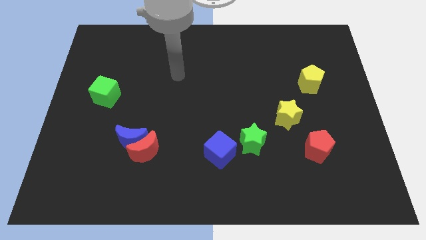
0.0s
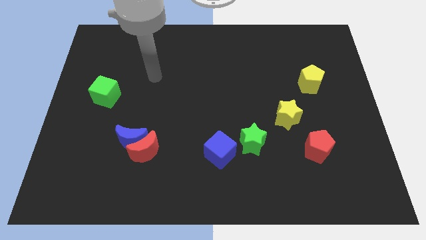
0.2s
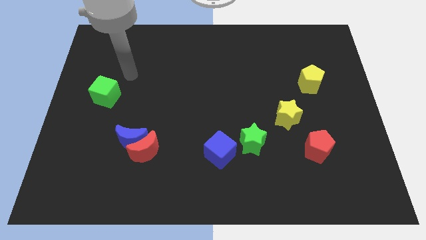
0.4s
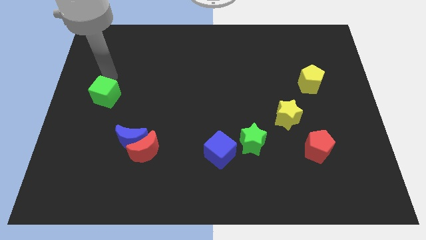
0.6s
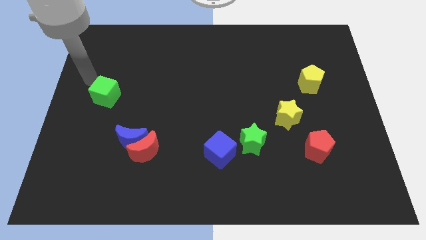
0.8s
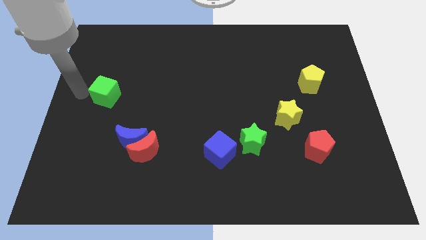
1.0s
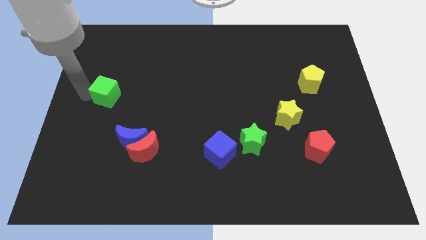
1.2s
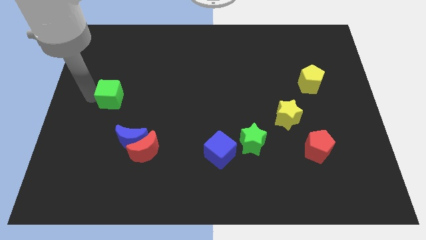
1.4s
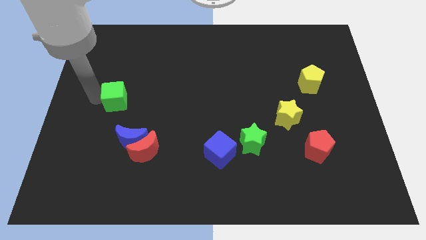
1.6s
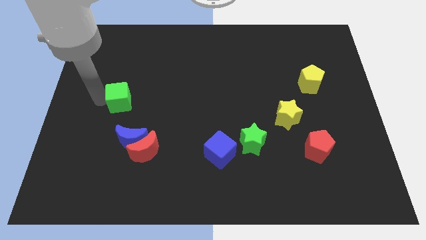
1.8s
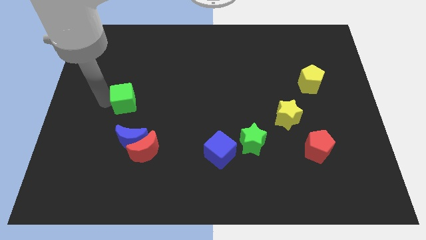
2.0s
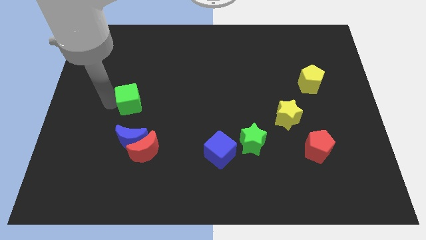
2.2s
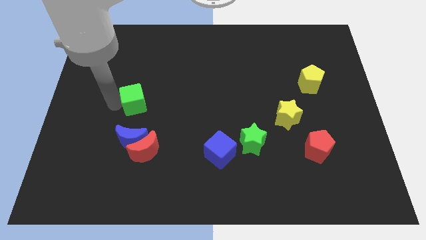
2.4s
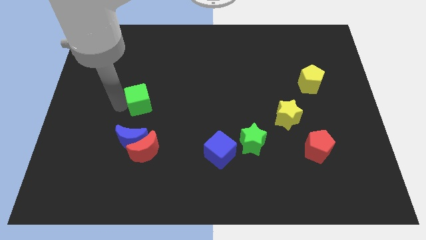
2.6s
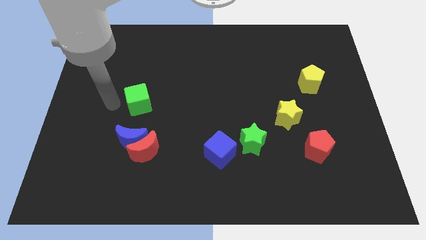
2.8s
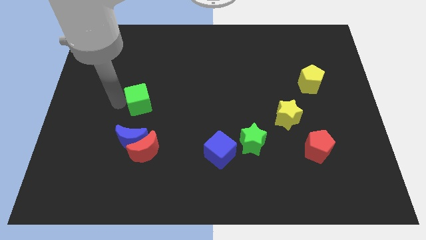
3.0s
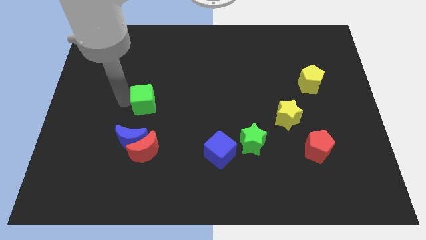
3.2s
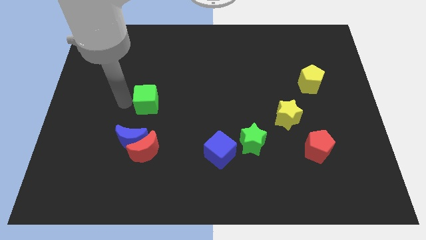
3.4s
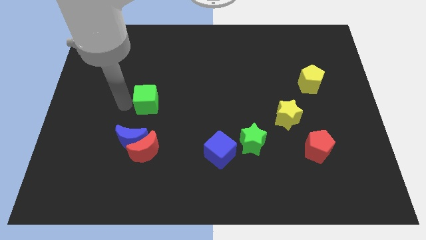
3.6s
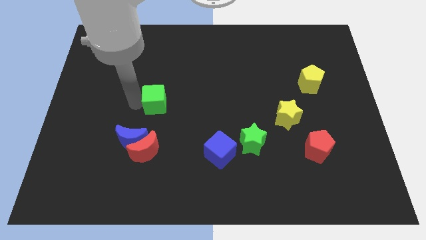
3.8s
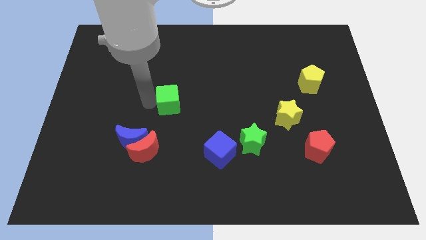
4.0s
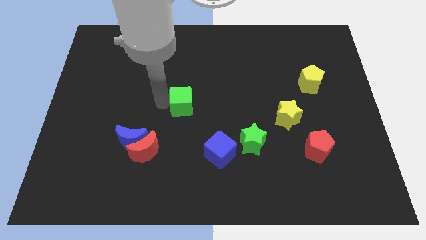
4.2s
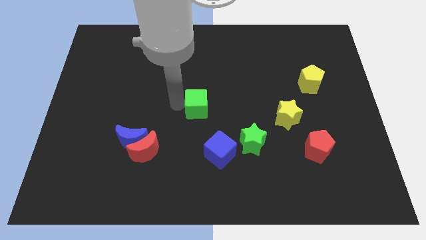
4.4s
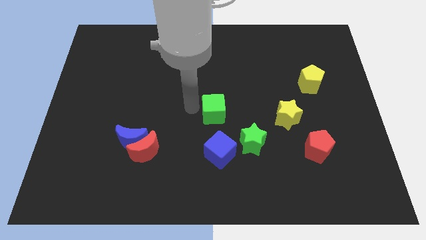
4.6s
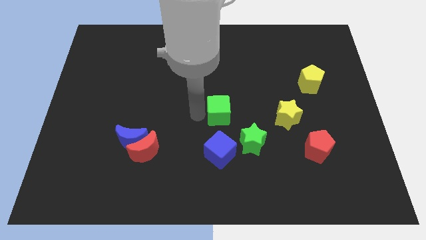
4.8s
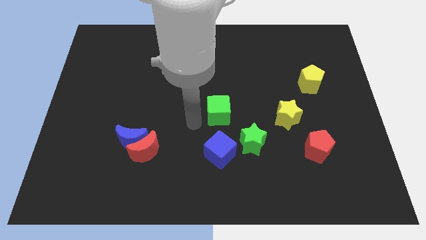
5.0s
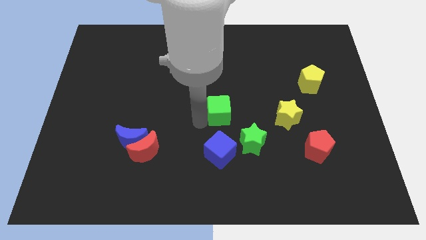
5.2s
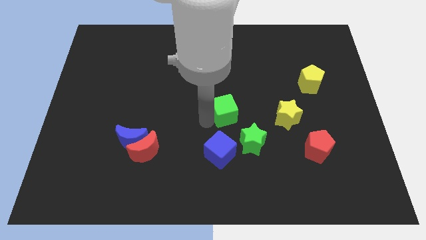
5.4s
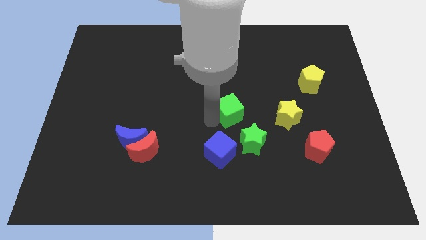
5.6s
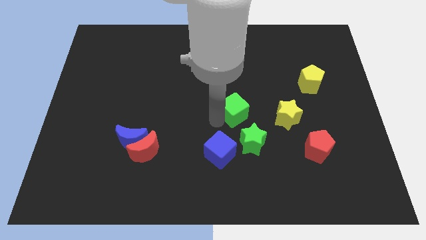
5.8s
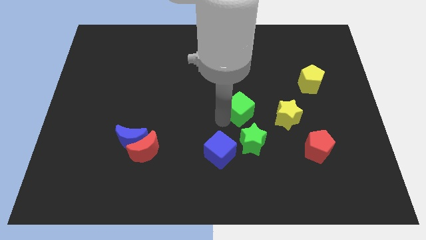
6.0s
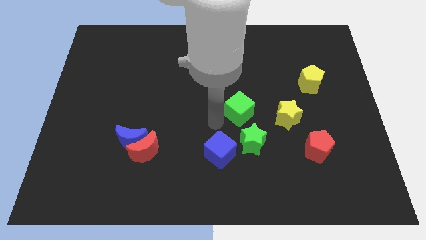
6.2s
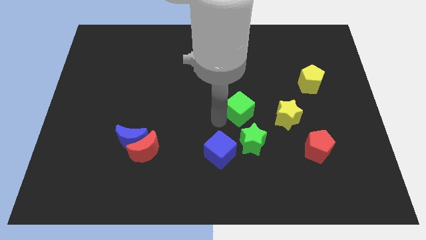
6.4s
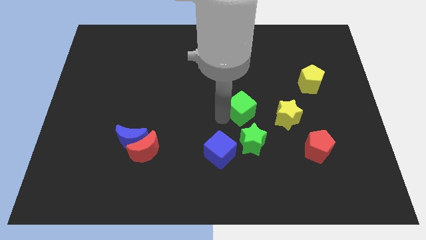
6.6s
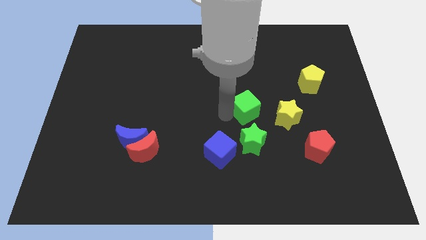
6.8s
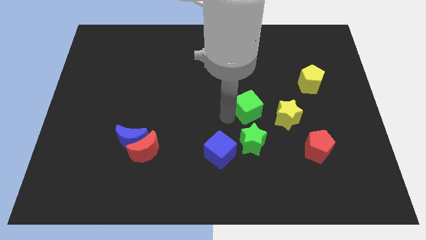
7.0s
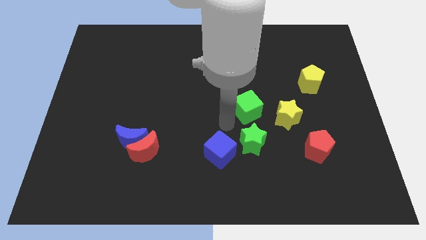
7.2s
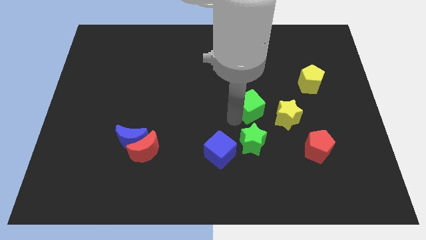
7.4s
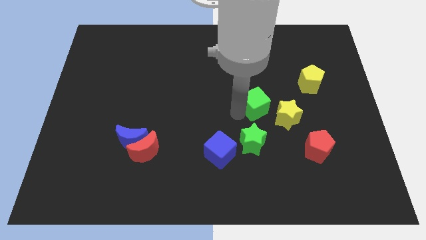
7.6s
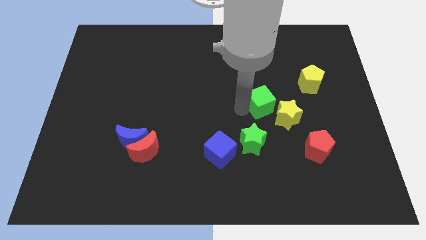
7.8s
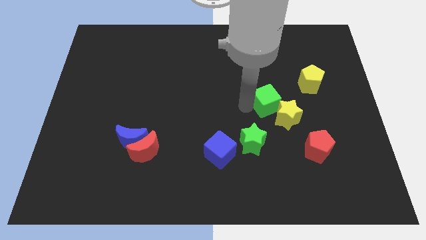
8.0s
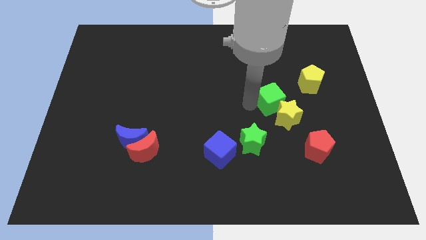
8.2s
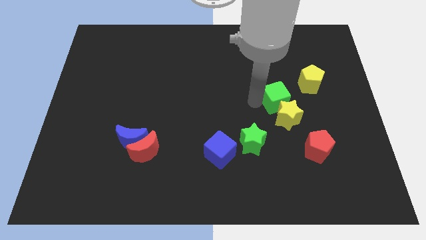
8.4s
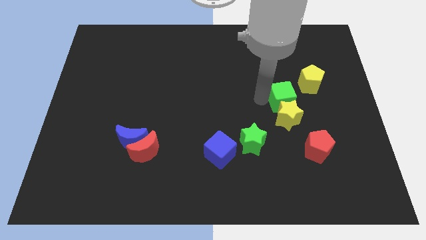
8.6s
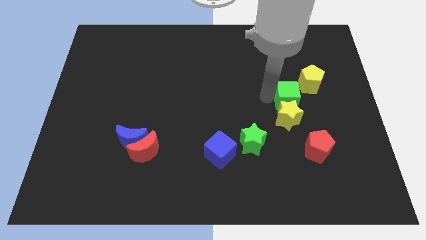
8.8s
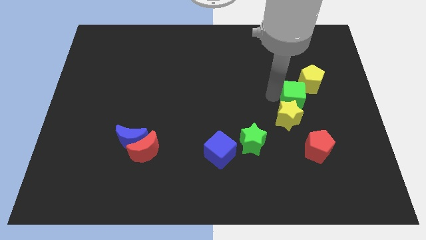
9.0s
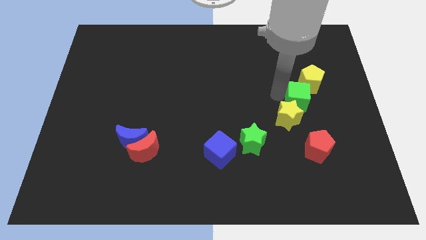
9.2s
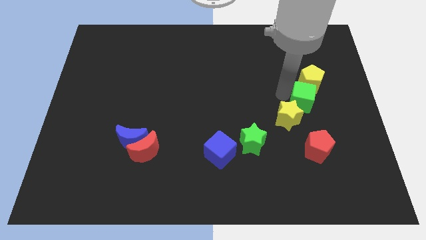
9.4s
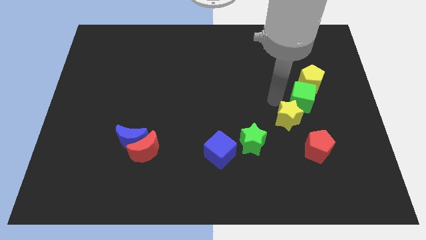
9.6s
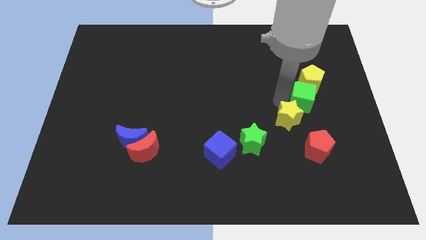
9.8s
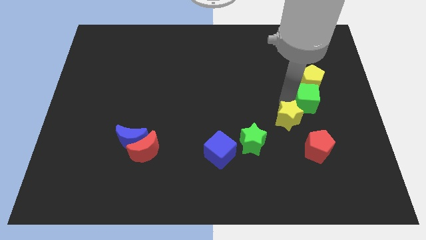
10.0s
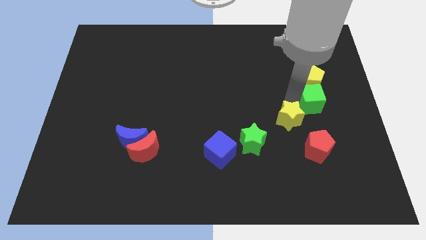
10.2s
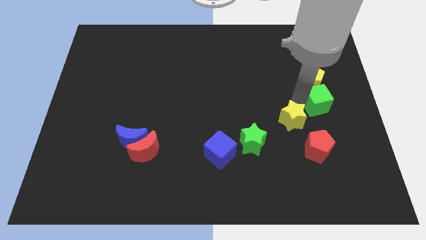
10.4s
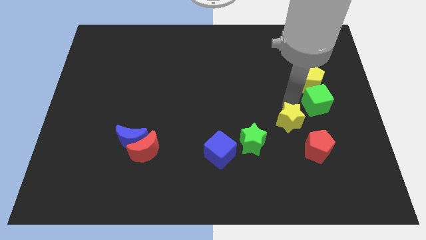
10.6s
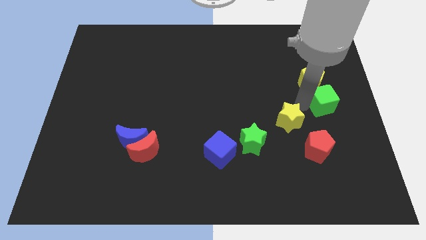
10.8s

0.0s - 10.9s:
push the green cube to the right side

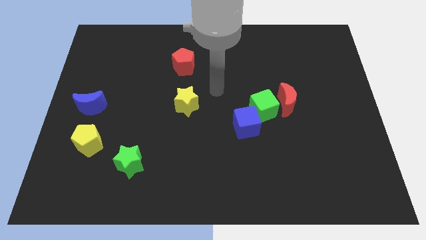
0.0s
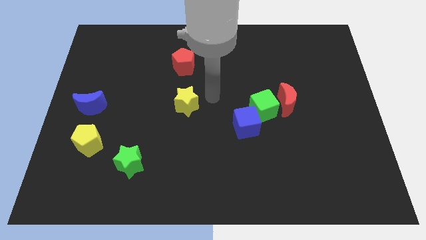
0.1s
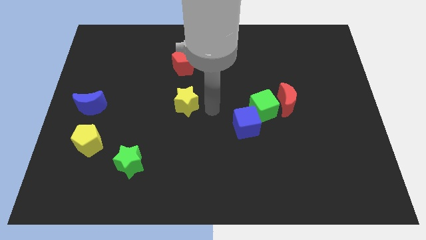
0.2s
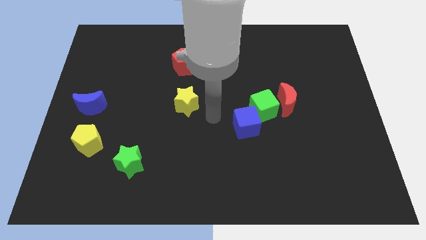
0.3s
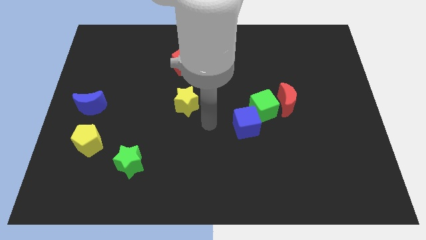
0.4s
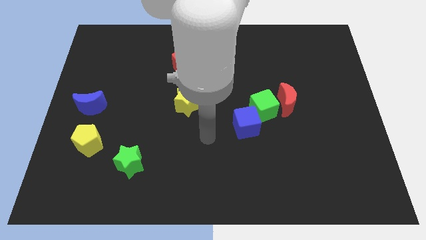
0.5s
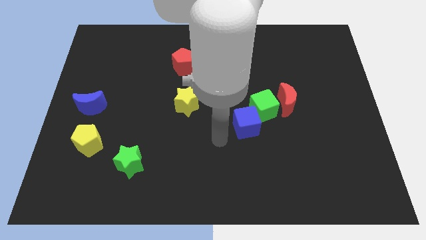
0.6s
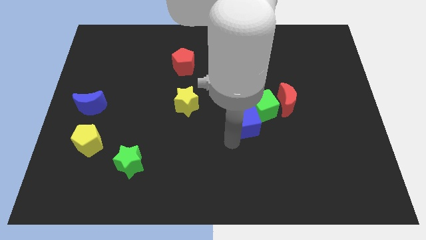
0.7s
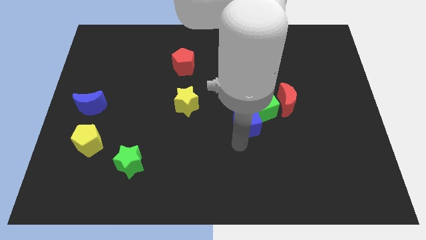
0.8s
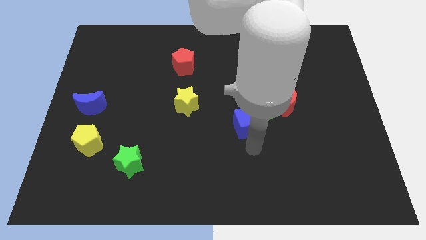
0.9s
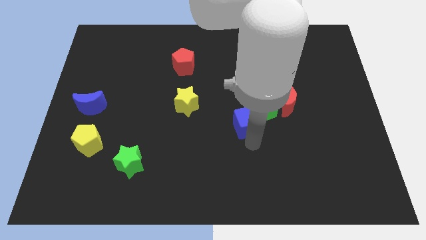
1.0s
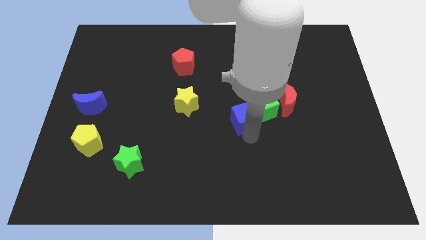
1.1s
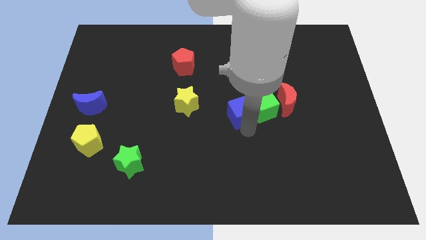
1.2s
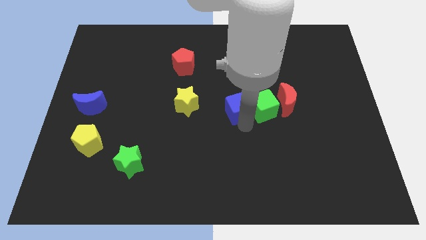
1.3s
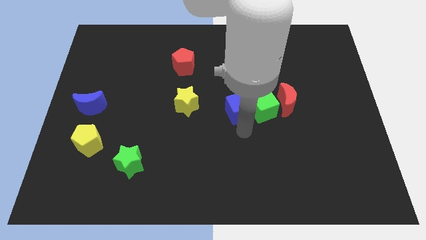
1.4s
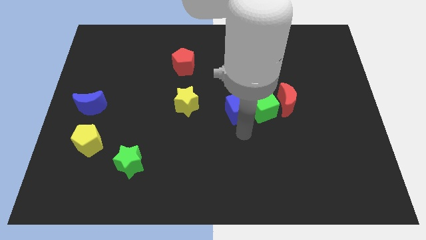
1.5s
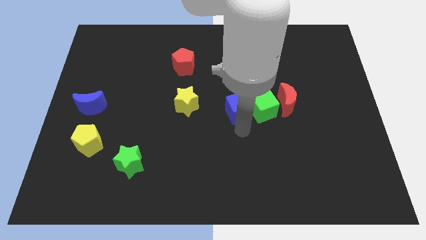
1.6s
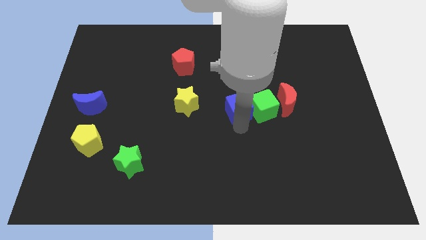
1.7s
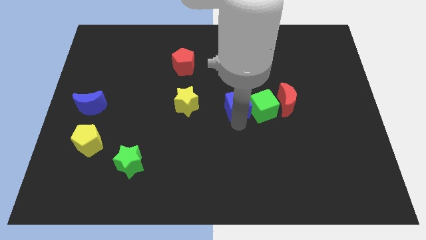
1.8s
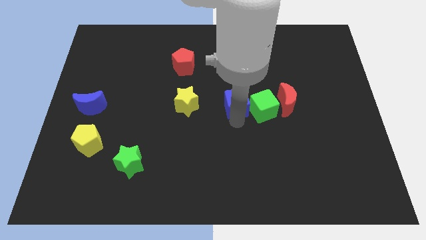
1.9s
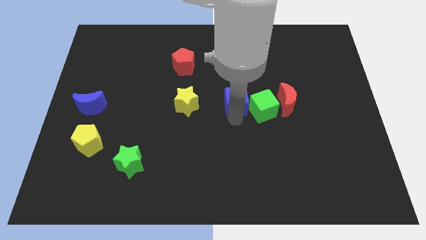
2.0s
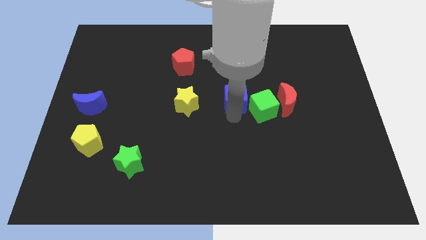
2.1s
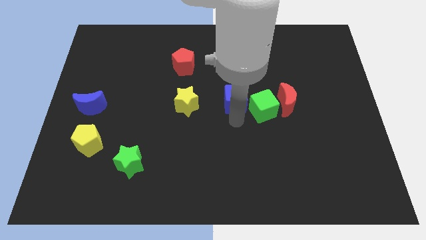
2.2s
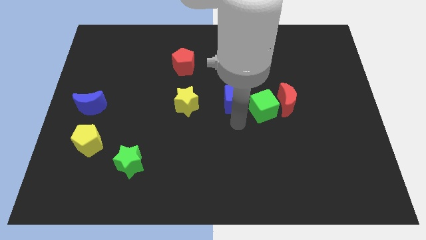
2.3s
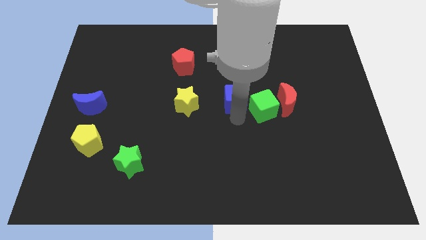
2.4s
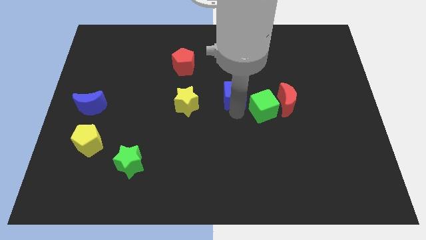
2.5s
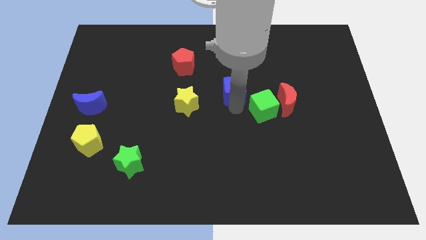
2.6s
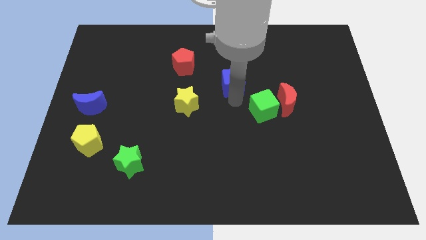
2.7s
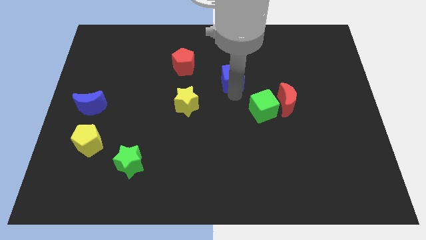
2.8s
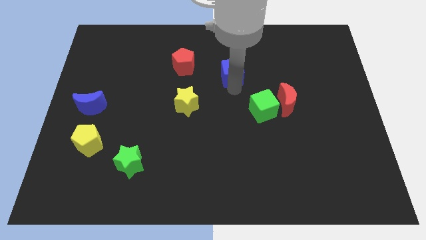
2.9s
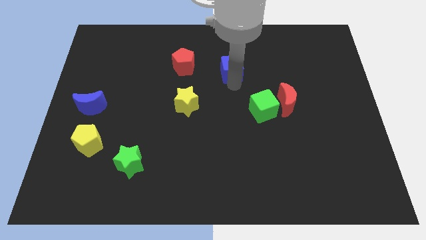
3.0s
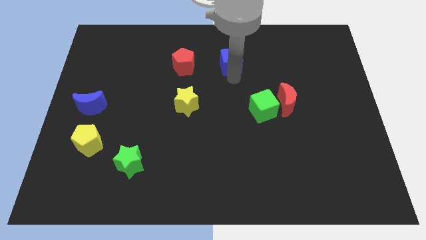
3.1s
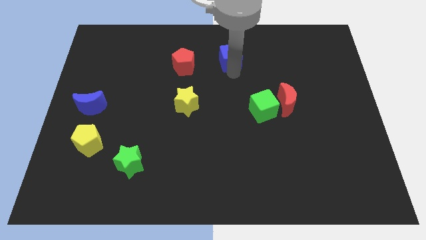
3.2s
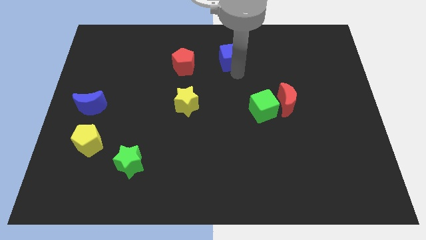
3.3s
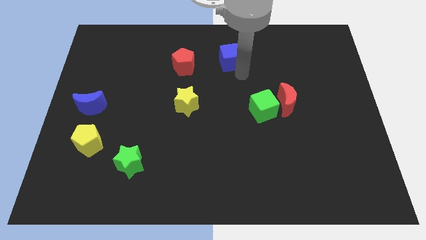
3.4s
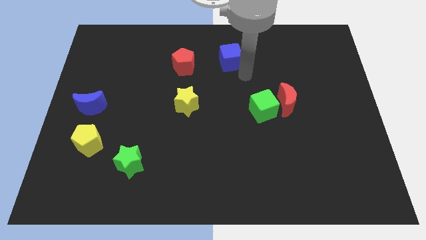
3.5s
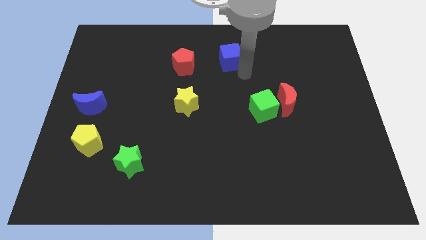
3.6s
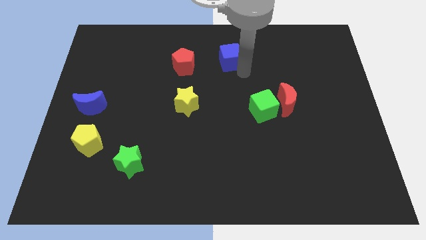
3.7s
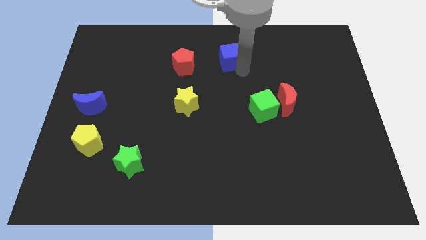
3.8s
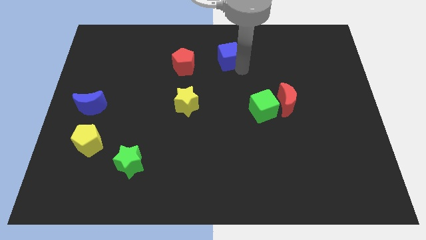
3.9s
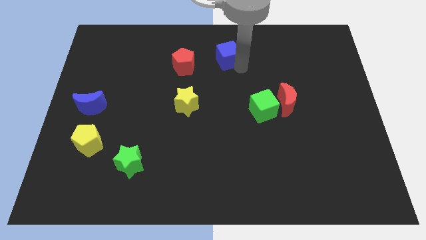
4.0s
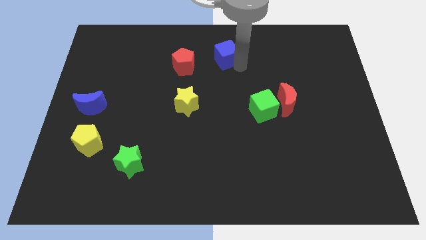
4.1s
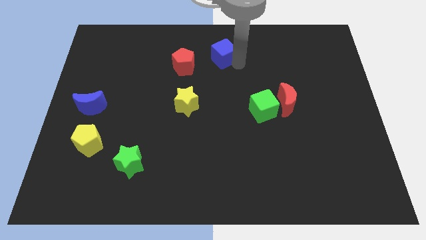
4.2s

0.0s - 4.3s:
slide the blue cube to the top
